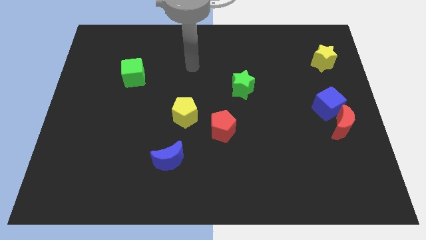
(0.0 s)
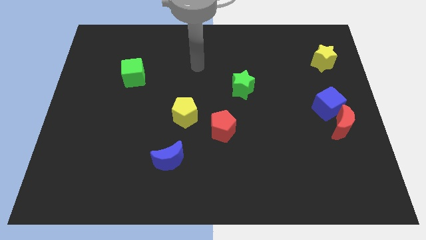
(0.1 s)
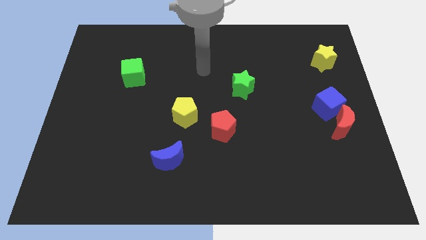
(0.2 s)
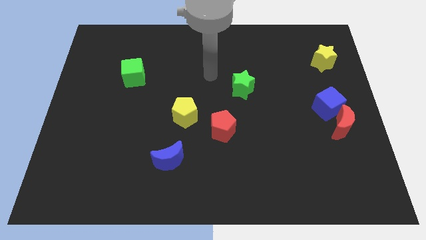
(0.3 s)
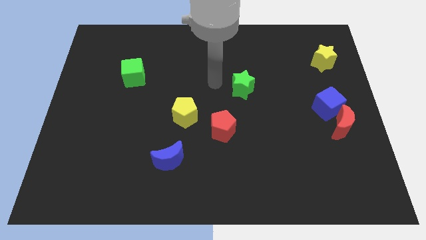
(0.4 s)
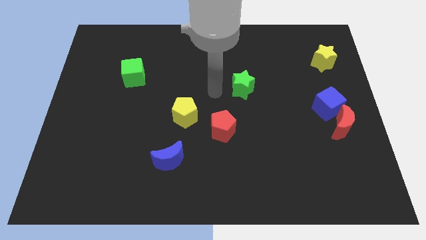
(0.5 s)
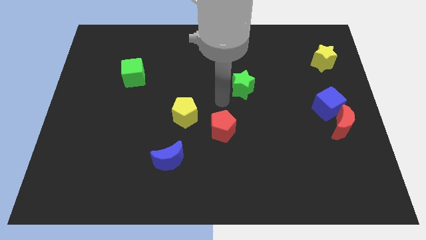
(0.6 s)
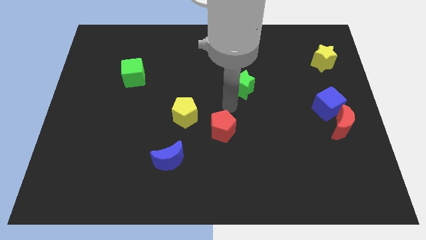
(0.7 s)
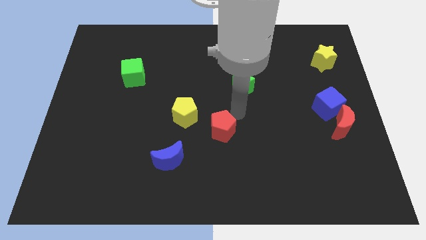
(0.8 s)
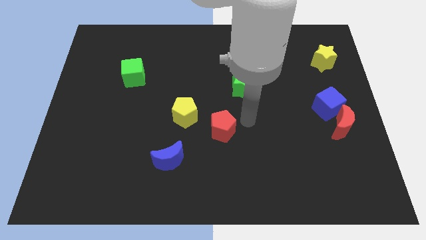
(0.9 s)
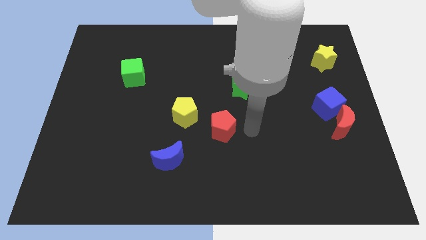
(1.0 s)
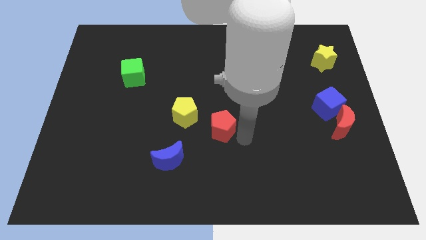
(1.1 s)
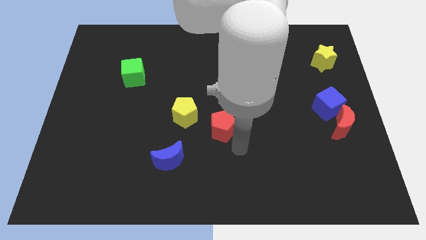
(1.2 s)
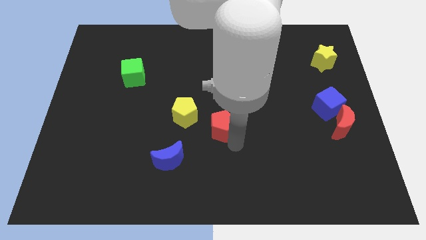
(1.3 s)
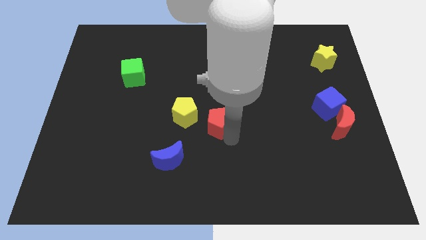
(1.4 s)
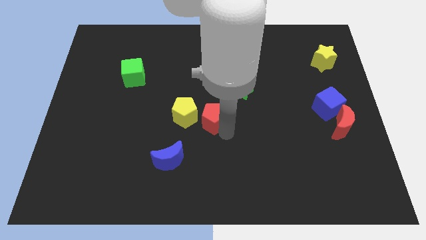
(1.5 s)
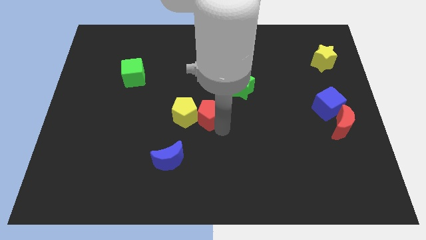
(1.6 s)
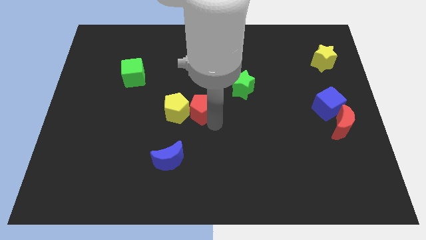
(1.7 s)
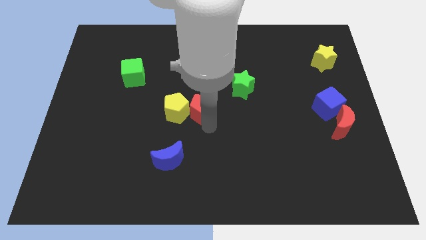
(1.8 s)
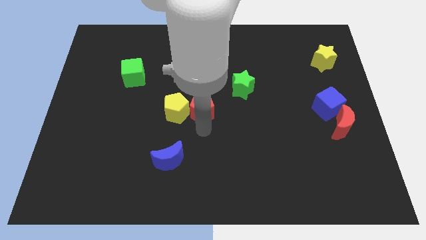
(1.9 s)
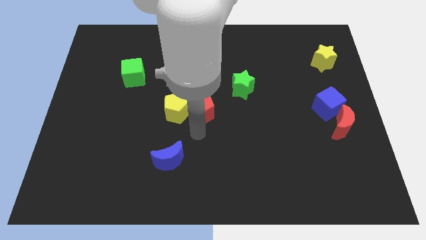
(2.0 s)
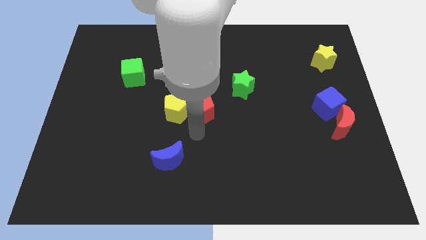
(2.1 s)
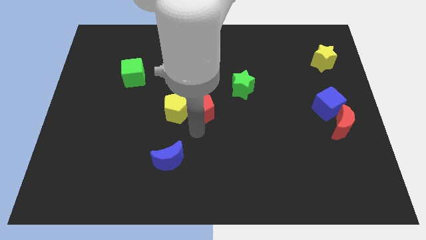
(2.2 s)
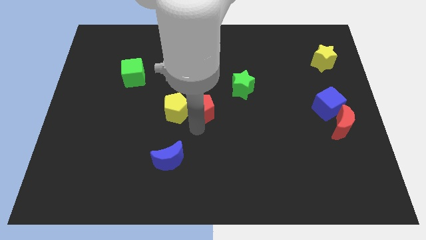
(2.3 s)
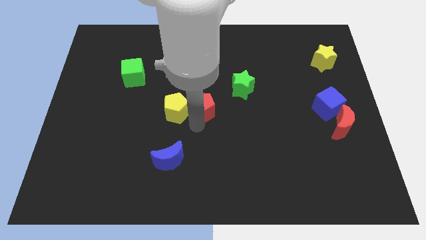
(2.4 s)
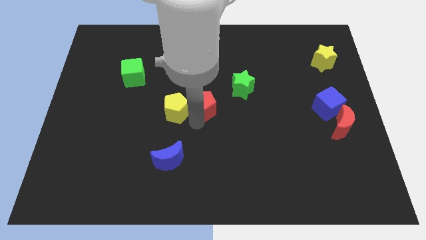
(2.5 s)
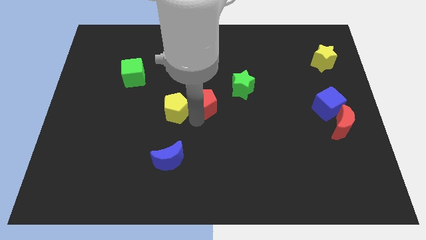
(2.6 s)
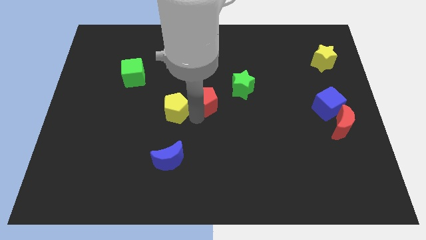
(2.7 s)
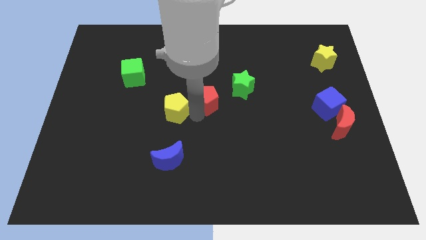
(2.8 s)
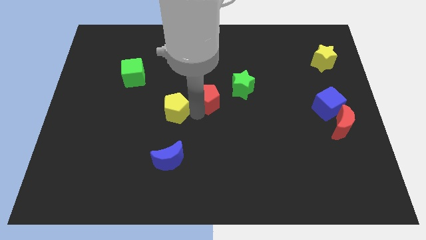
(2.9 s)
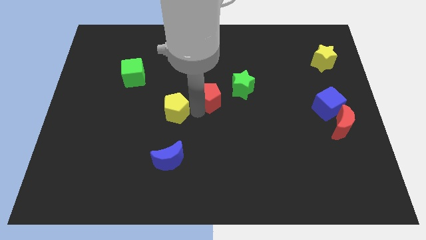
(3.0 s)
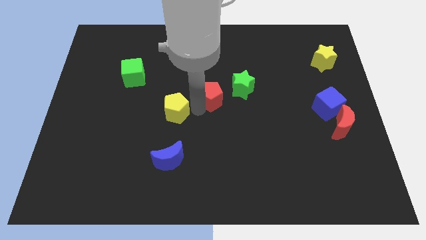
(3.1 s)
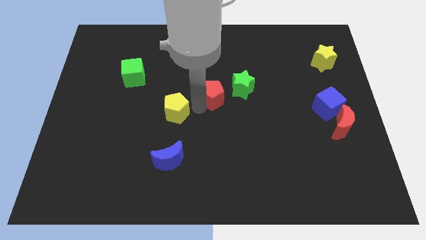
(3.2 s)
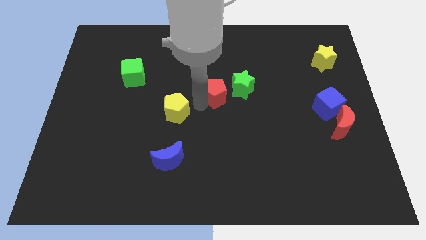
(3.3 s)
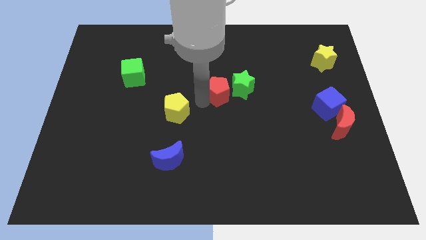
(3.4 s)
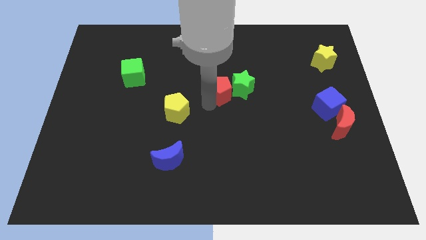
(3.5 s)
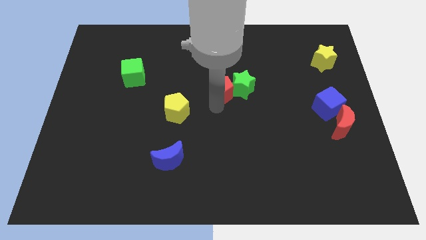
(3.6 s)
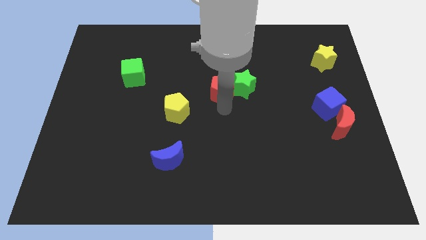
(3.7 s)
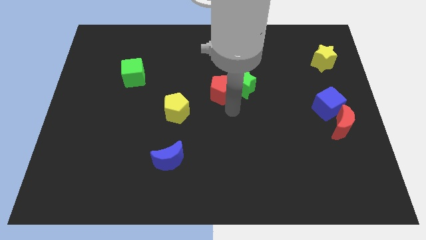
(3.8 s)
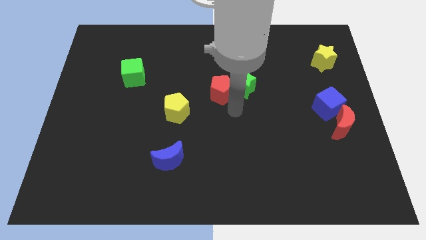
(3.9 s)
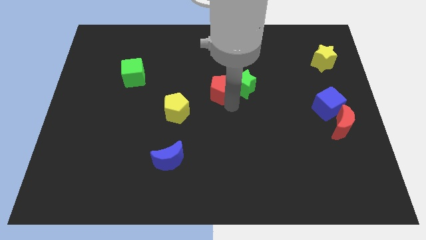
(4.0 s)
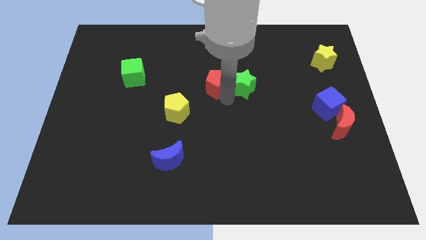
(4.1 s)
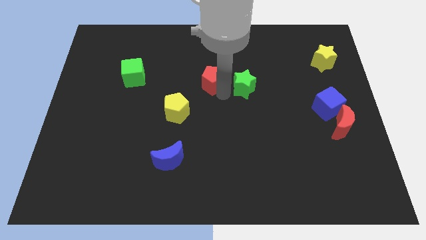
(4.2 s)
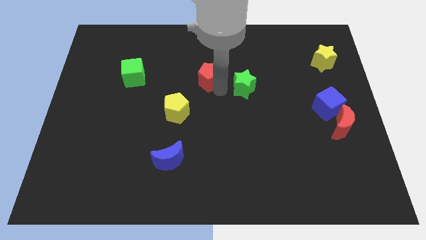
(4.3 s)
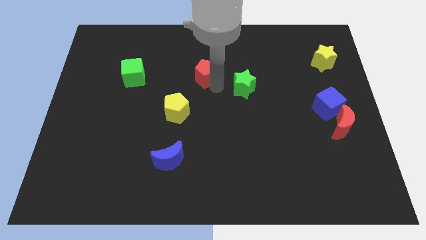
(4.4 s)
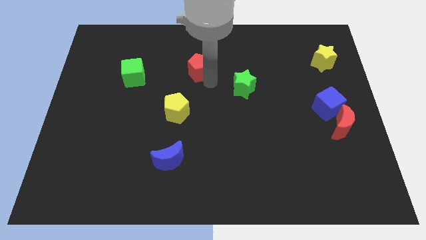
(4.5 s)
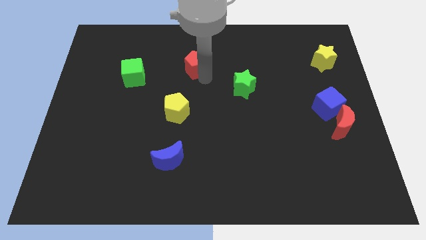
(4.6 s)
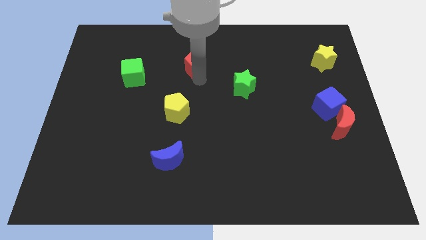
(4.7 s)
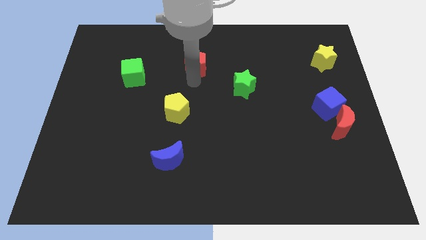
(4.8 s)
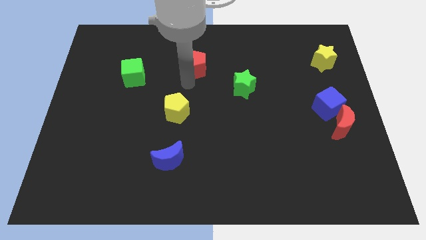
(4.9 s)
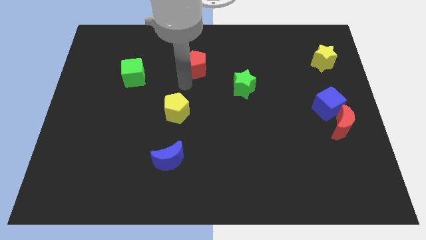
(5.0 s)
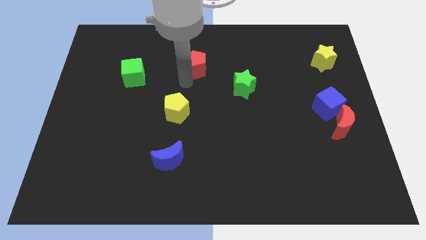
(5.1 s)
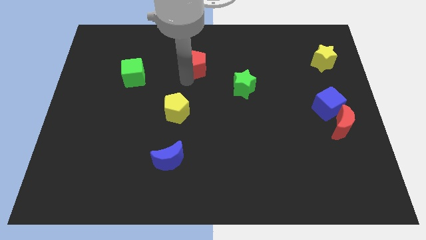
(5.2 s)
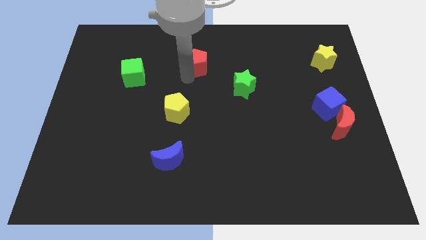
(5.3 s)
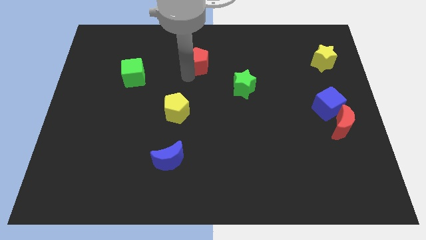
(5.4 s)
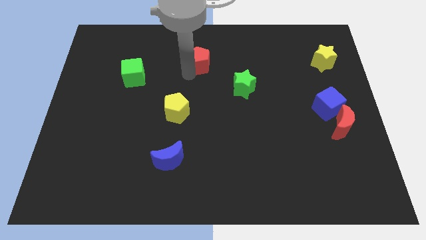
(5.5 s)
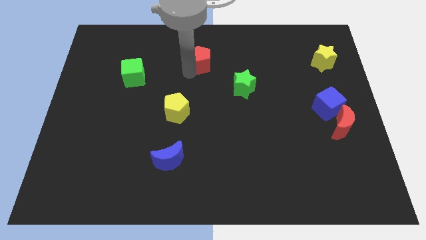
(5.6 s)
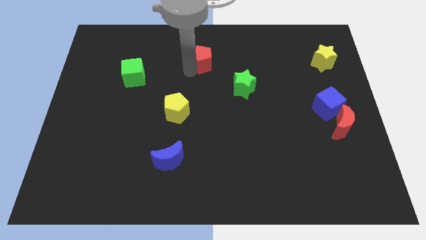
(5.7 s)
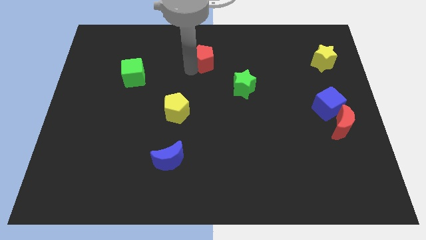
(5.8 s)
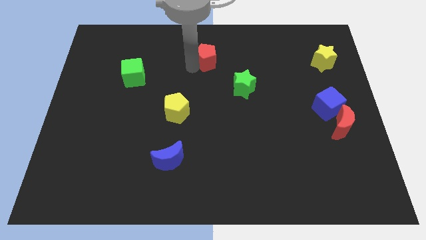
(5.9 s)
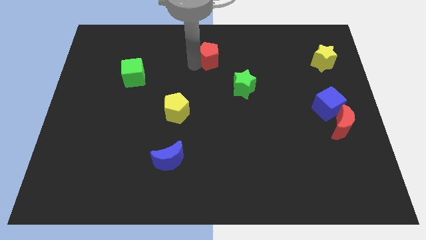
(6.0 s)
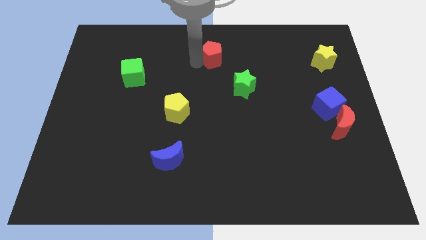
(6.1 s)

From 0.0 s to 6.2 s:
move the red pentagon to the top
